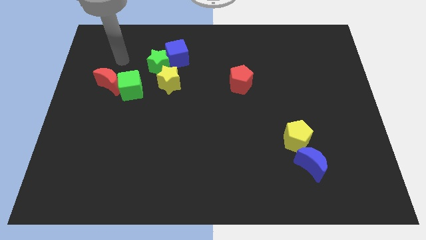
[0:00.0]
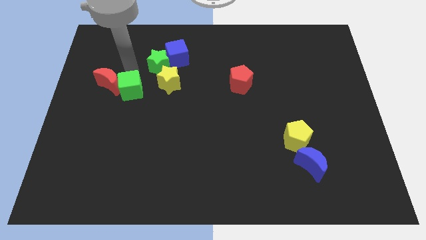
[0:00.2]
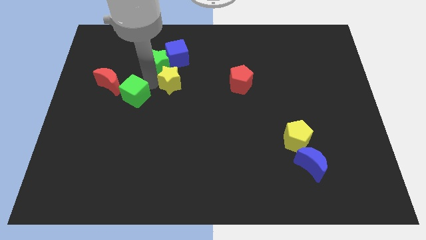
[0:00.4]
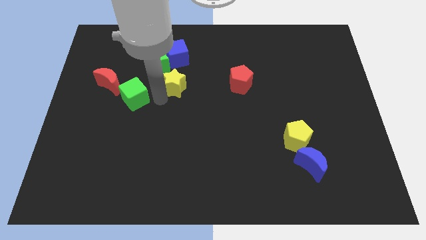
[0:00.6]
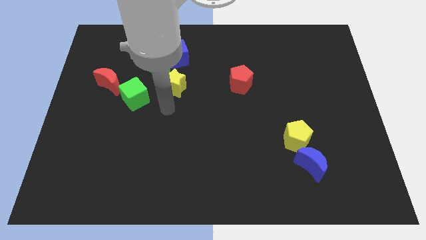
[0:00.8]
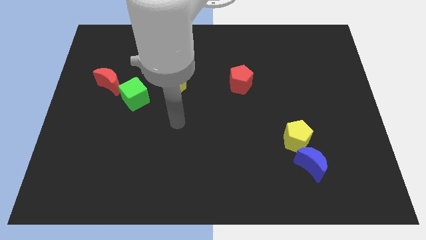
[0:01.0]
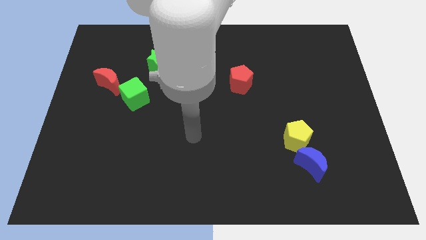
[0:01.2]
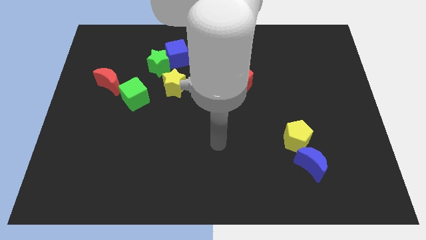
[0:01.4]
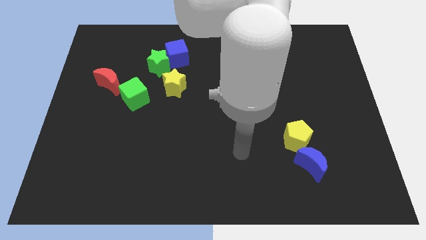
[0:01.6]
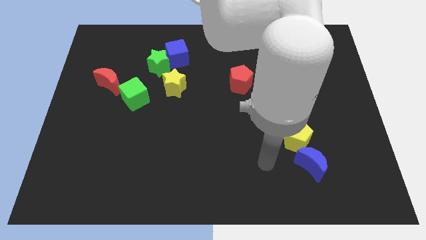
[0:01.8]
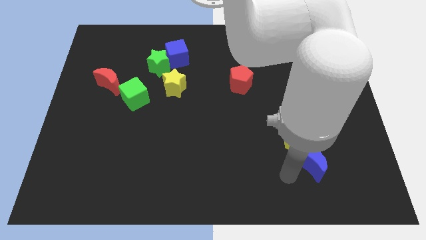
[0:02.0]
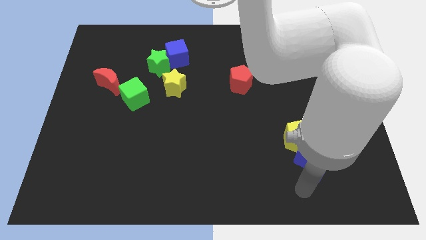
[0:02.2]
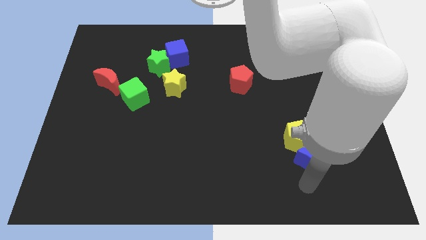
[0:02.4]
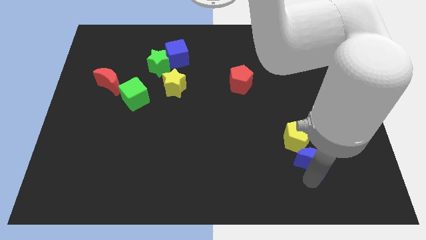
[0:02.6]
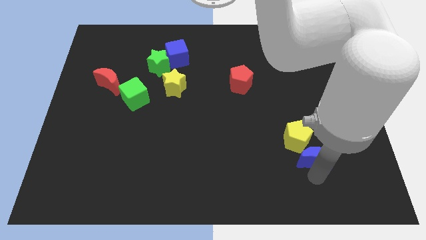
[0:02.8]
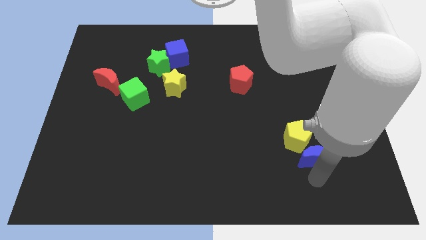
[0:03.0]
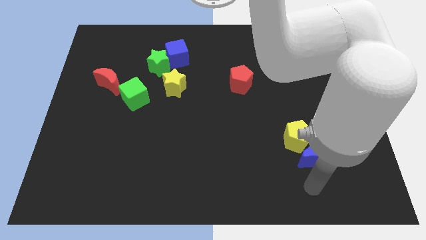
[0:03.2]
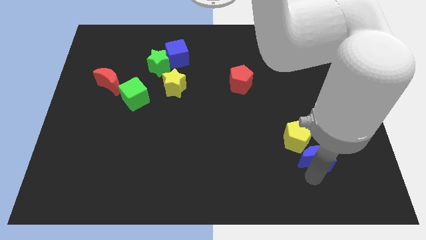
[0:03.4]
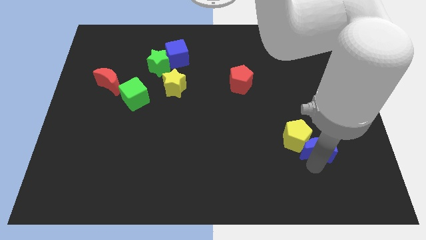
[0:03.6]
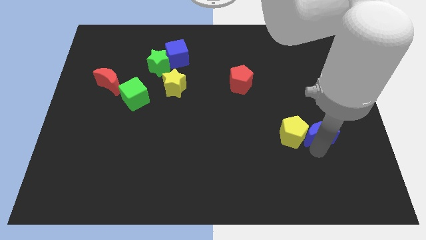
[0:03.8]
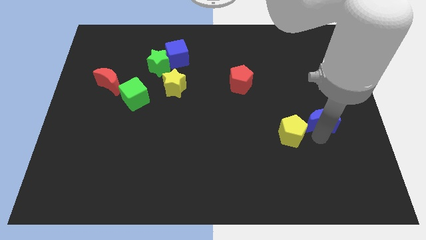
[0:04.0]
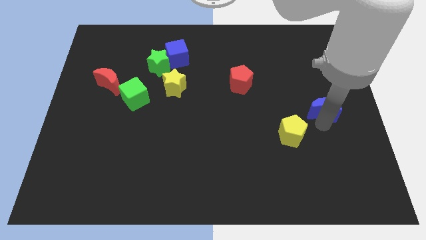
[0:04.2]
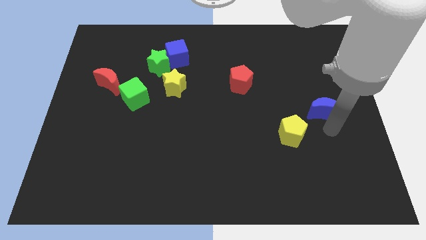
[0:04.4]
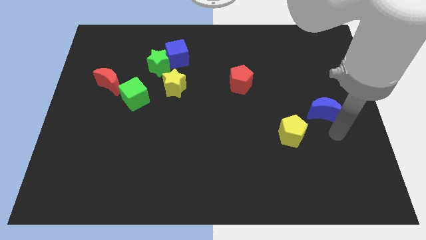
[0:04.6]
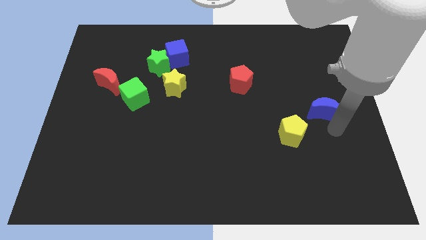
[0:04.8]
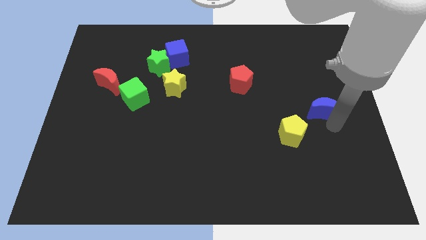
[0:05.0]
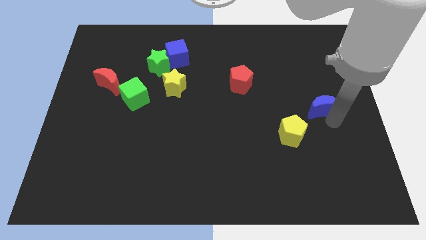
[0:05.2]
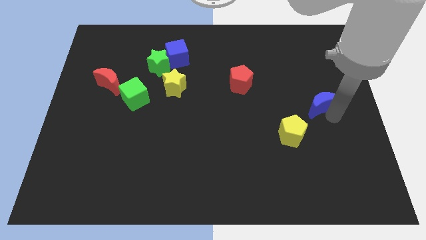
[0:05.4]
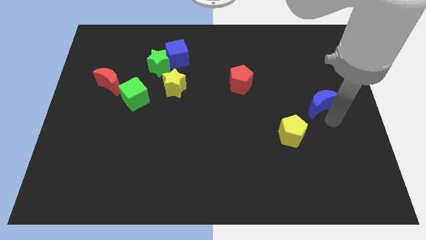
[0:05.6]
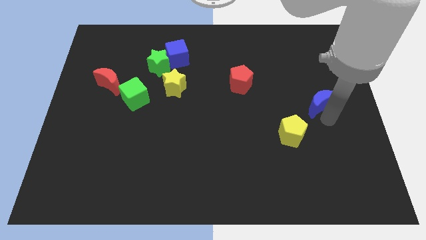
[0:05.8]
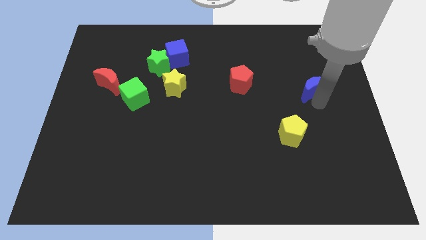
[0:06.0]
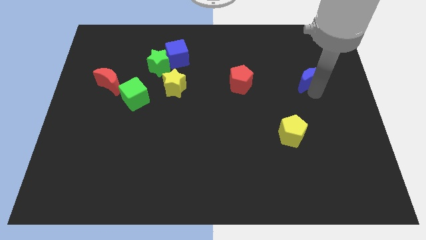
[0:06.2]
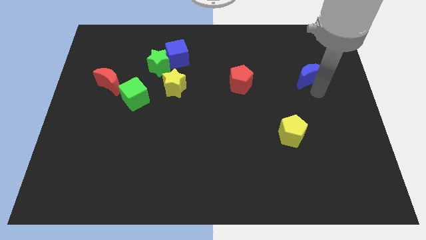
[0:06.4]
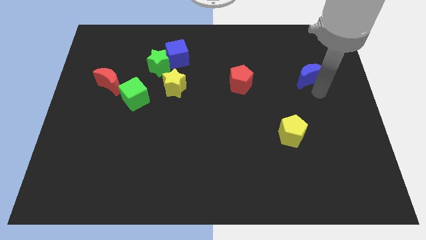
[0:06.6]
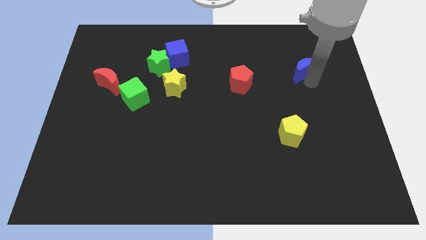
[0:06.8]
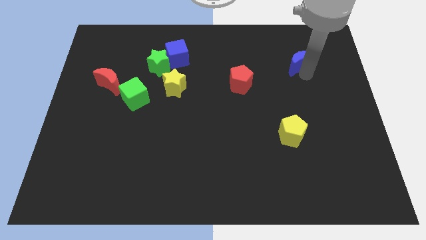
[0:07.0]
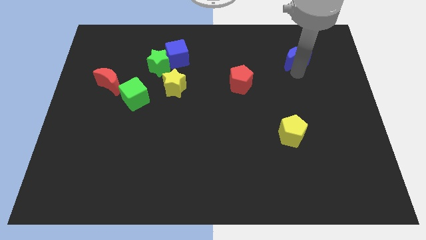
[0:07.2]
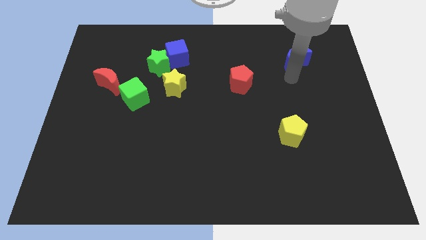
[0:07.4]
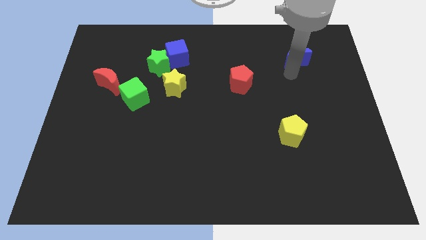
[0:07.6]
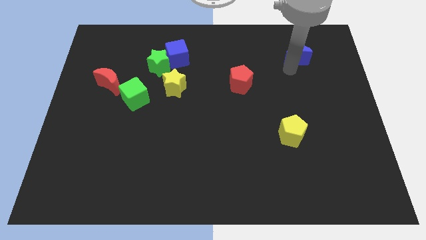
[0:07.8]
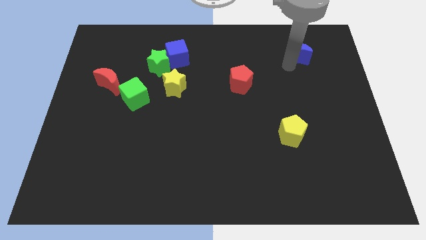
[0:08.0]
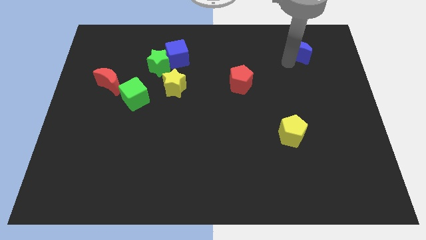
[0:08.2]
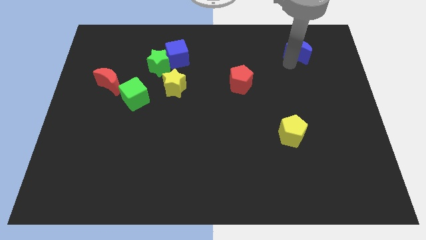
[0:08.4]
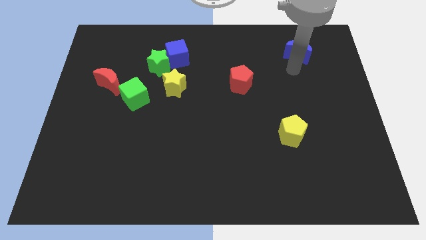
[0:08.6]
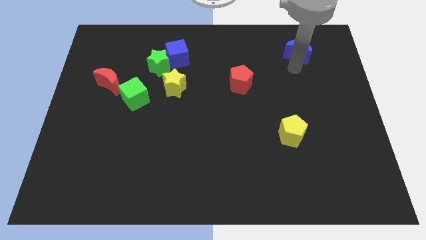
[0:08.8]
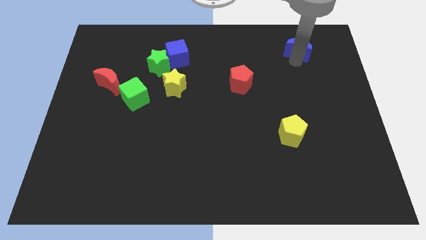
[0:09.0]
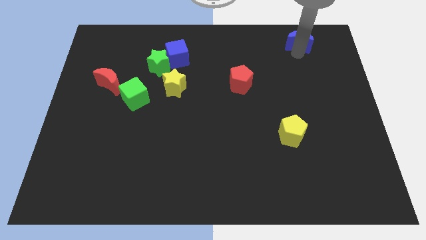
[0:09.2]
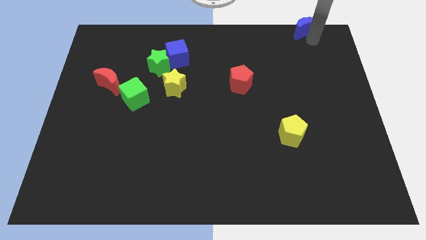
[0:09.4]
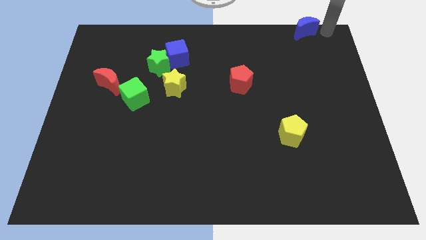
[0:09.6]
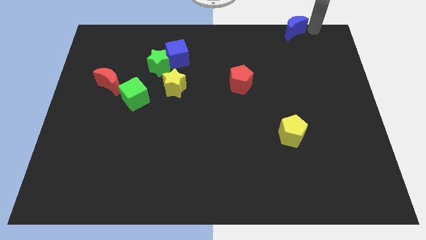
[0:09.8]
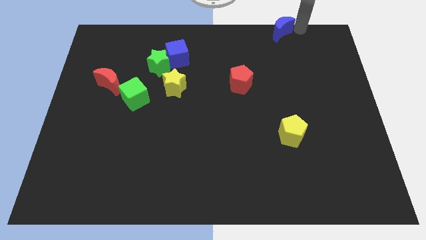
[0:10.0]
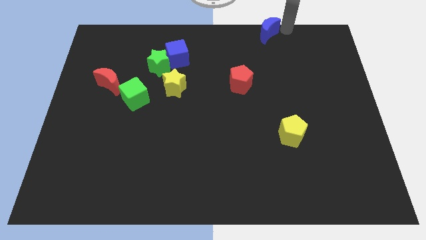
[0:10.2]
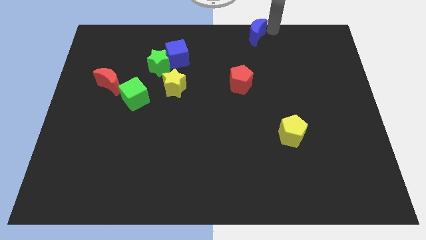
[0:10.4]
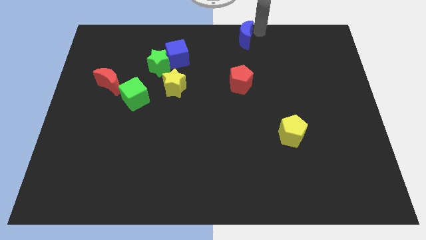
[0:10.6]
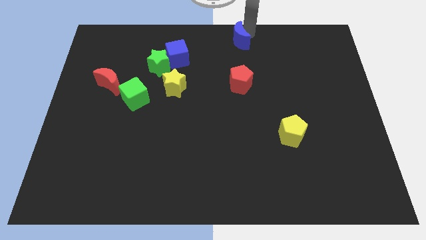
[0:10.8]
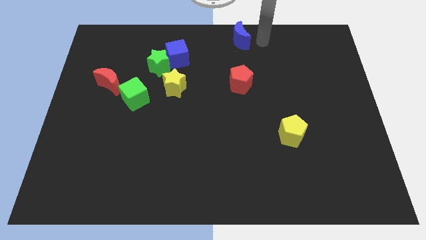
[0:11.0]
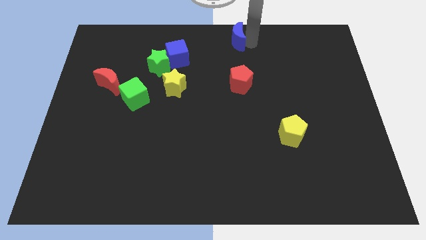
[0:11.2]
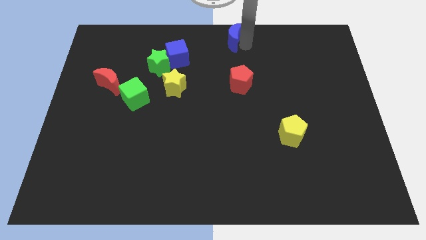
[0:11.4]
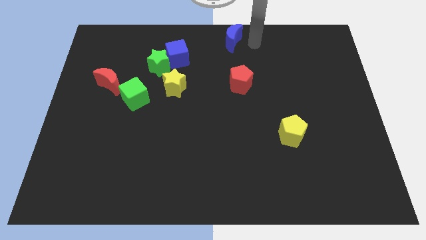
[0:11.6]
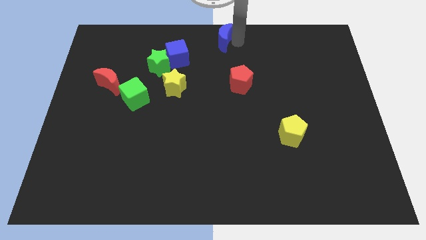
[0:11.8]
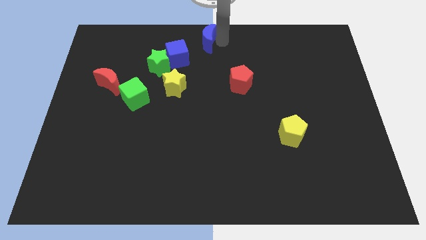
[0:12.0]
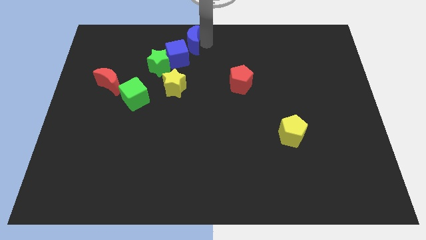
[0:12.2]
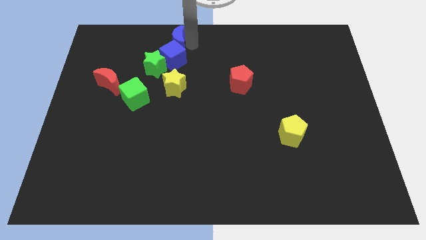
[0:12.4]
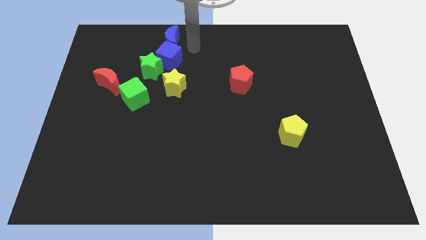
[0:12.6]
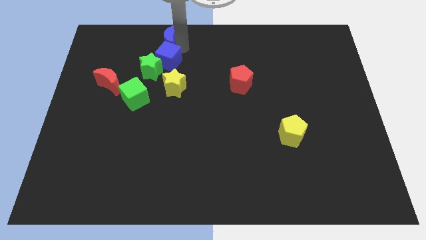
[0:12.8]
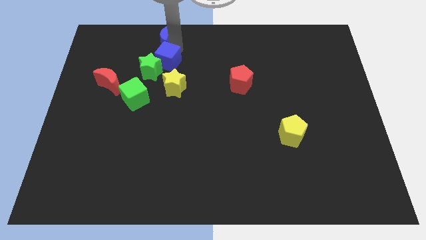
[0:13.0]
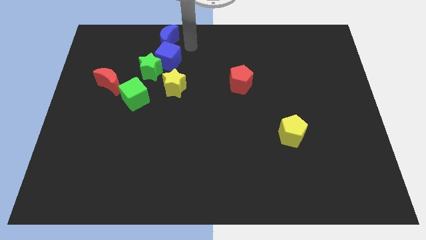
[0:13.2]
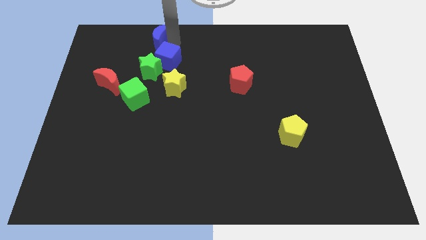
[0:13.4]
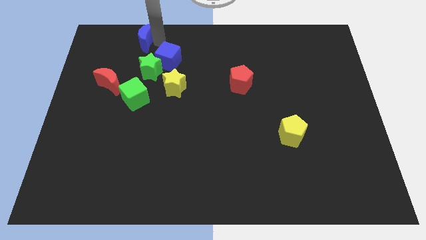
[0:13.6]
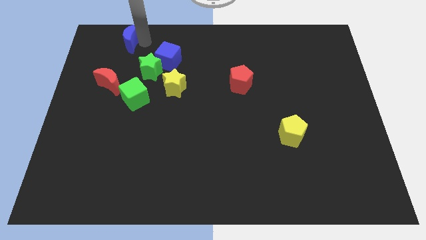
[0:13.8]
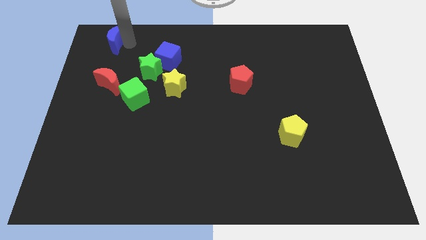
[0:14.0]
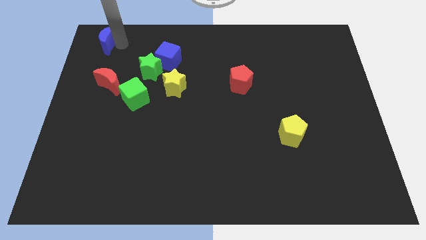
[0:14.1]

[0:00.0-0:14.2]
move the blue moon to the top left of the board
